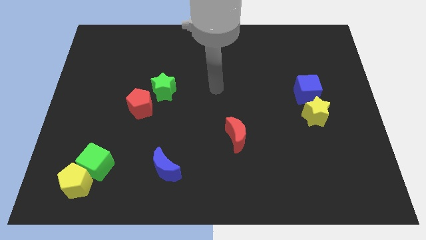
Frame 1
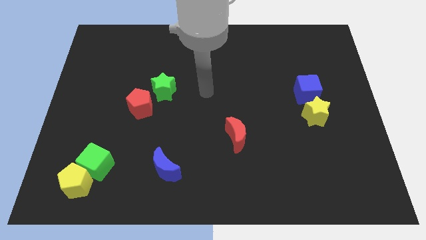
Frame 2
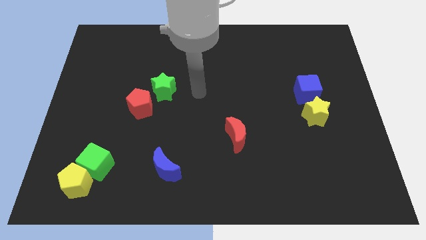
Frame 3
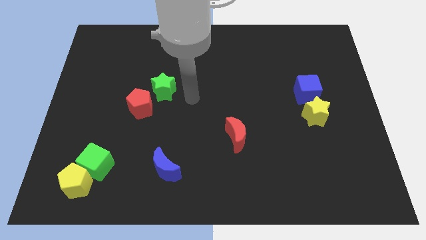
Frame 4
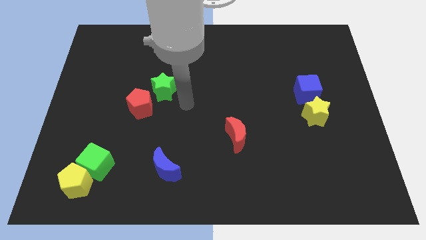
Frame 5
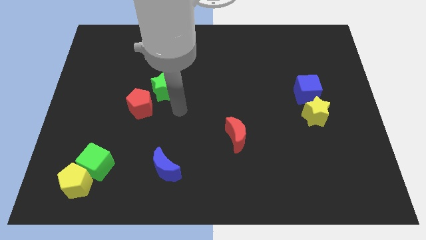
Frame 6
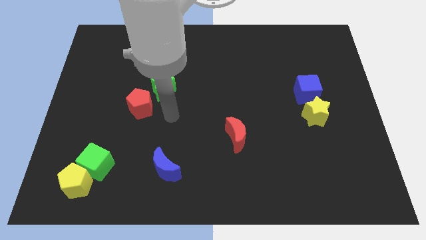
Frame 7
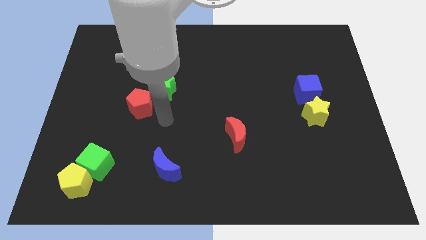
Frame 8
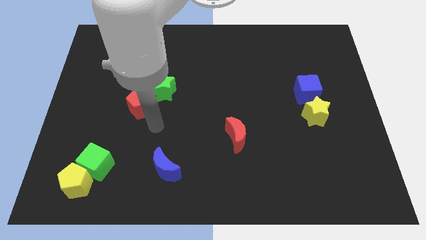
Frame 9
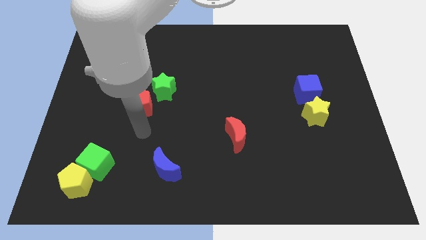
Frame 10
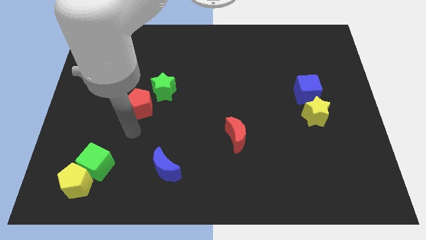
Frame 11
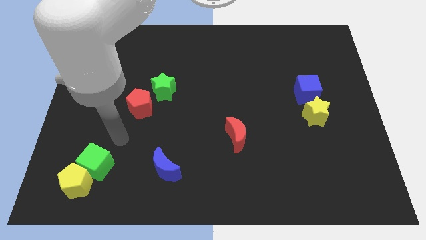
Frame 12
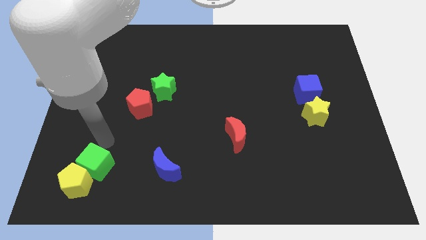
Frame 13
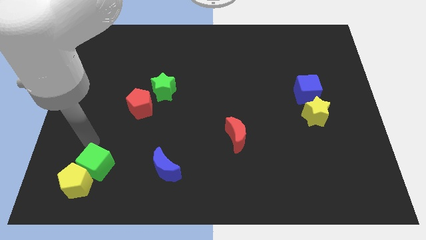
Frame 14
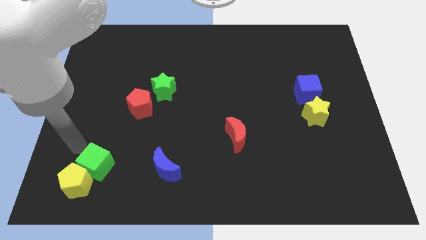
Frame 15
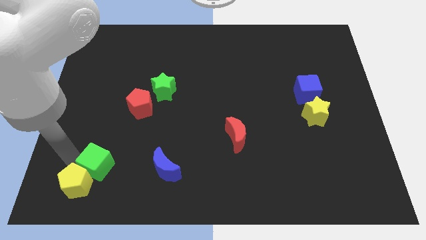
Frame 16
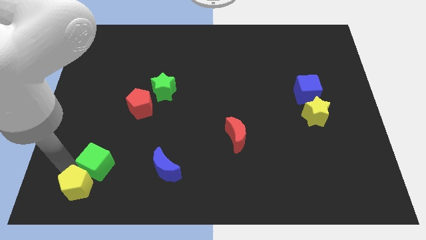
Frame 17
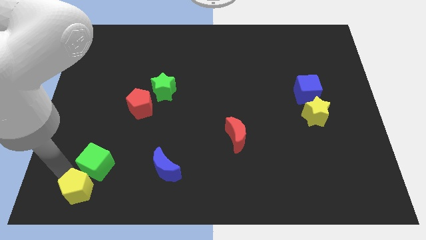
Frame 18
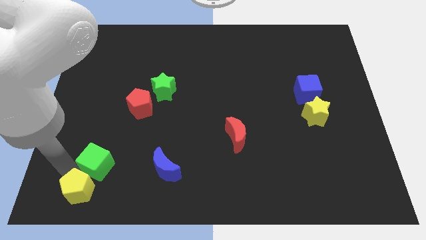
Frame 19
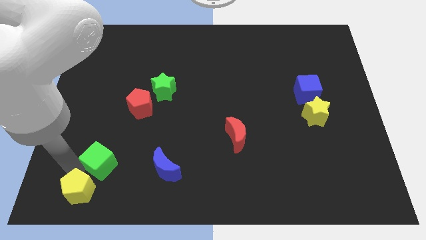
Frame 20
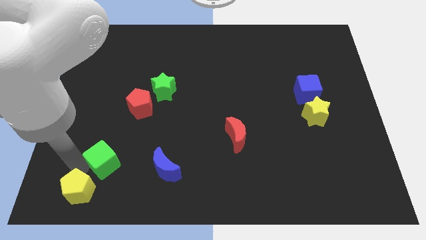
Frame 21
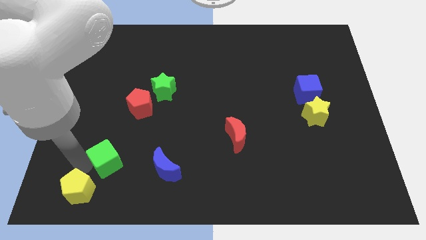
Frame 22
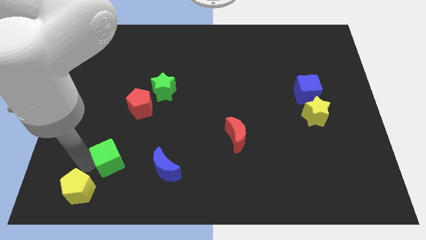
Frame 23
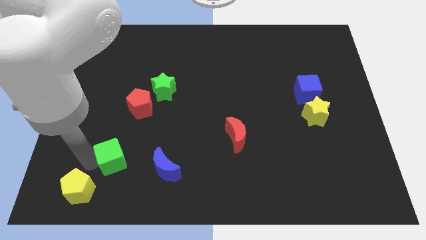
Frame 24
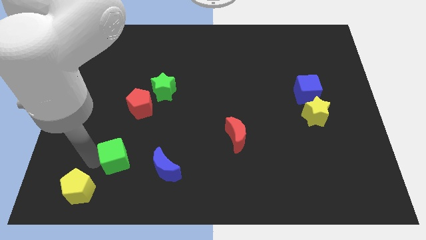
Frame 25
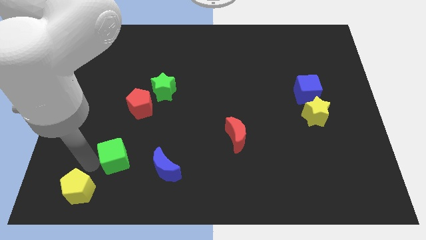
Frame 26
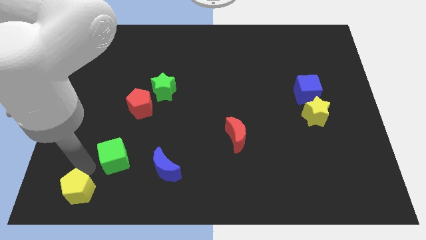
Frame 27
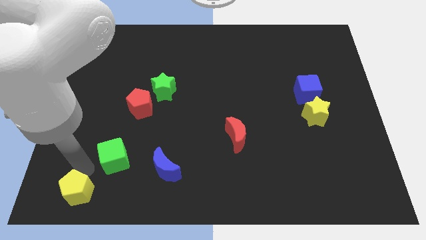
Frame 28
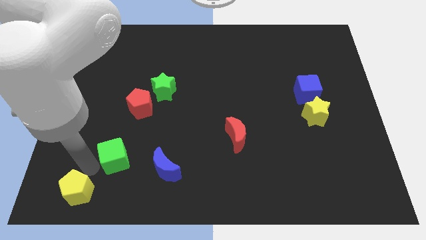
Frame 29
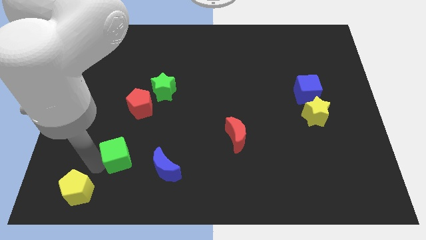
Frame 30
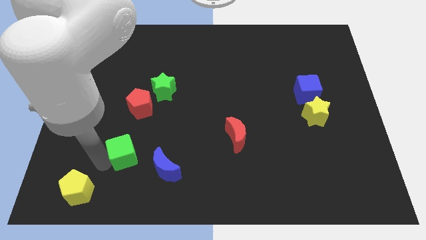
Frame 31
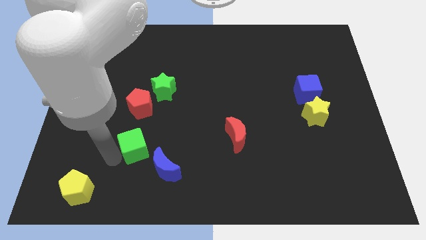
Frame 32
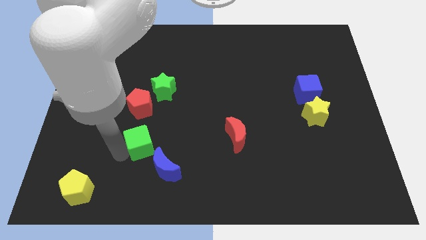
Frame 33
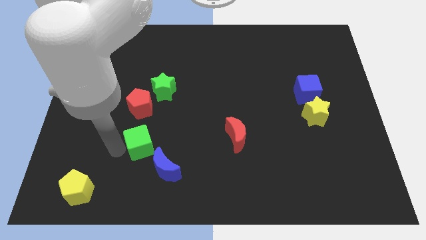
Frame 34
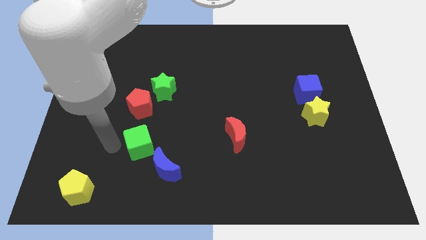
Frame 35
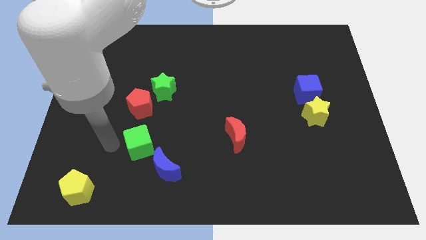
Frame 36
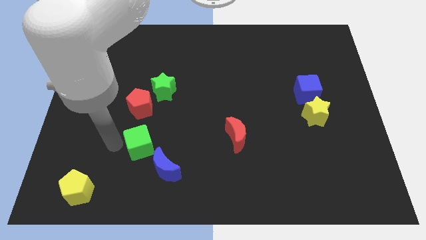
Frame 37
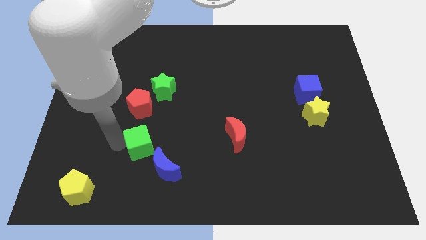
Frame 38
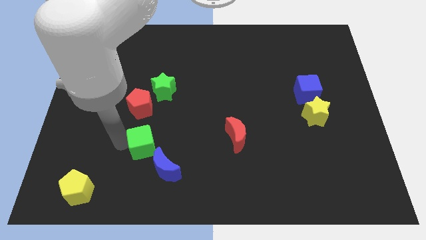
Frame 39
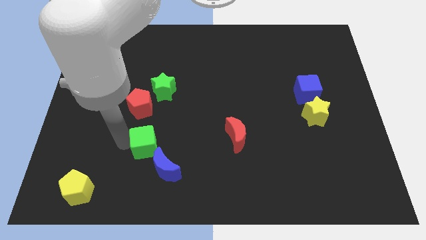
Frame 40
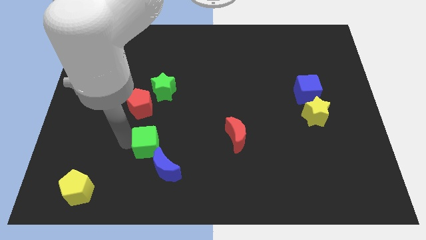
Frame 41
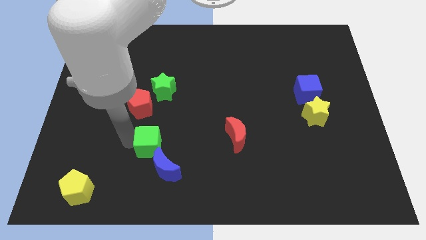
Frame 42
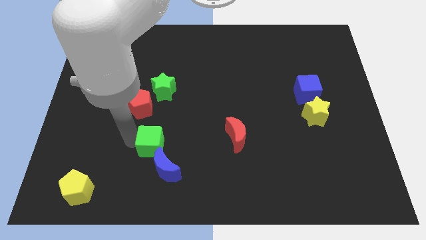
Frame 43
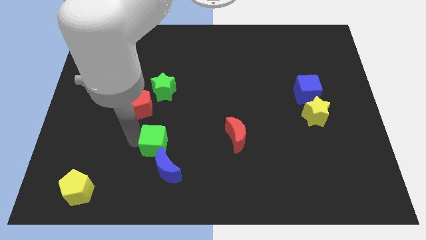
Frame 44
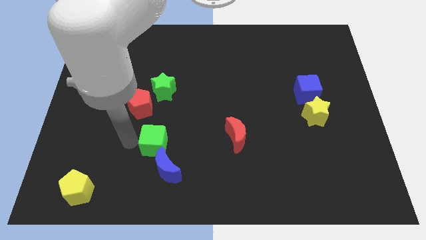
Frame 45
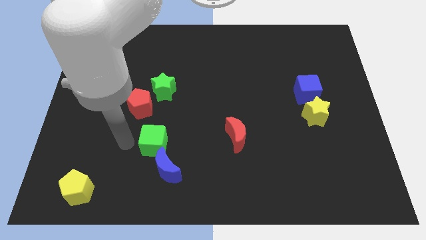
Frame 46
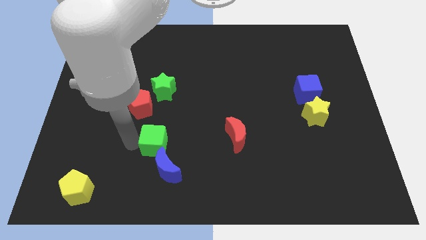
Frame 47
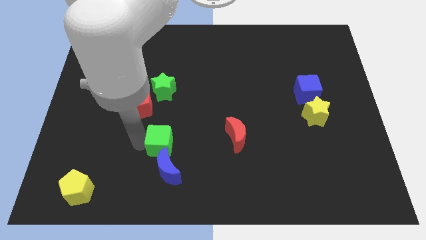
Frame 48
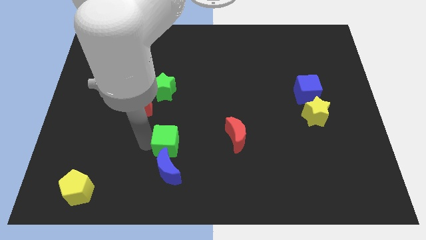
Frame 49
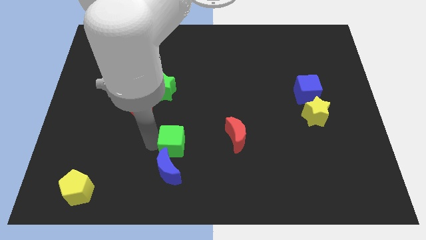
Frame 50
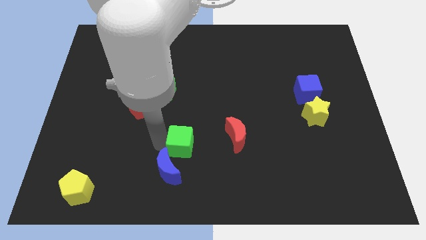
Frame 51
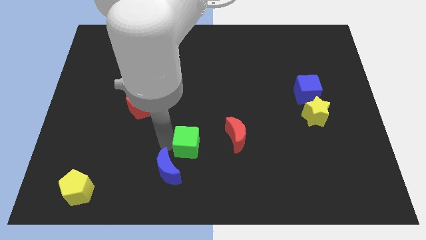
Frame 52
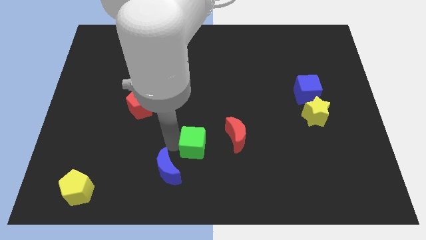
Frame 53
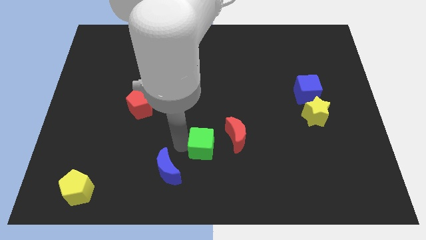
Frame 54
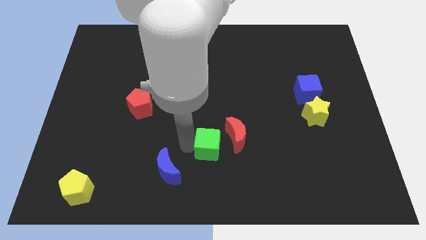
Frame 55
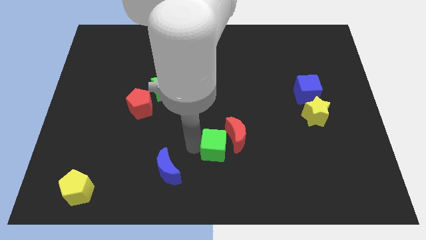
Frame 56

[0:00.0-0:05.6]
move the green cube to the red moon

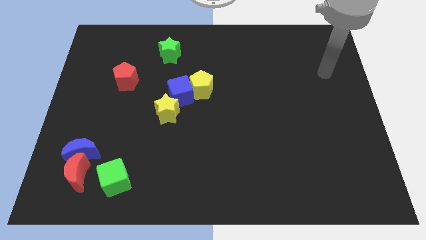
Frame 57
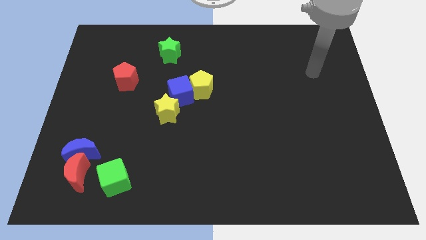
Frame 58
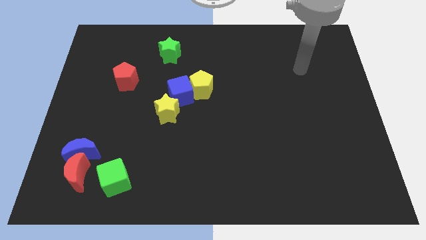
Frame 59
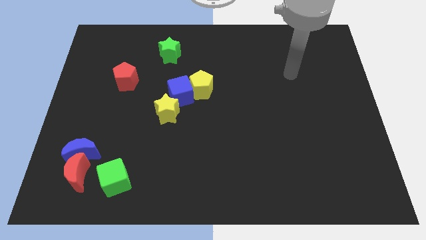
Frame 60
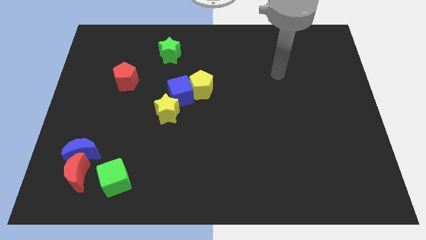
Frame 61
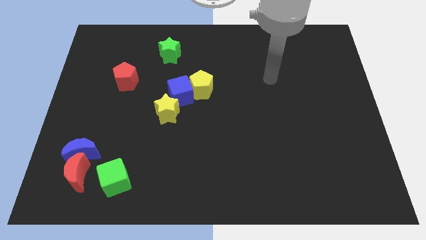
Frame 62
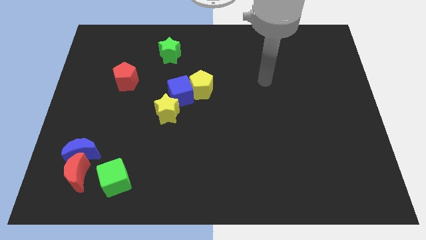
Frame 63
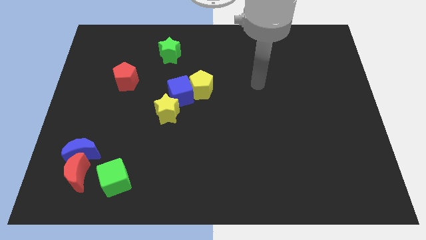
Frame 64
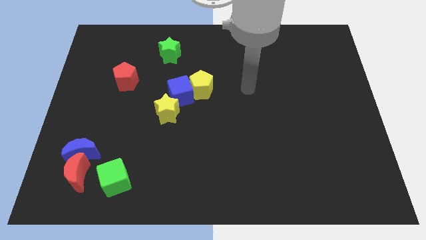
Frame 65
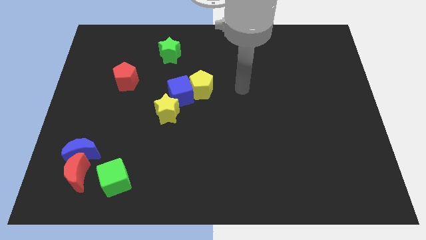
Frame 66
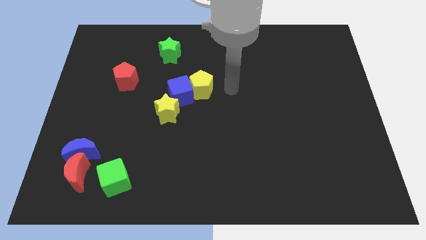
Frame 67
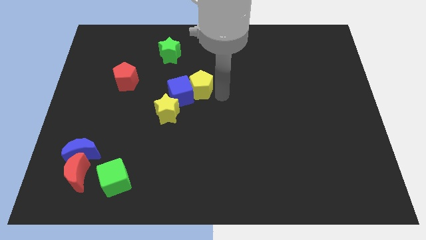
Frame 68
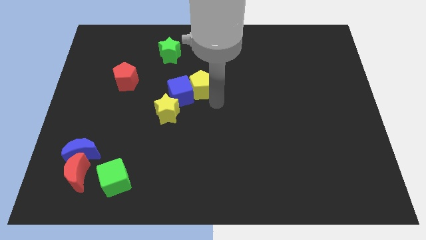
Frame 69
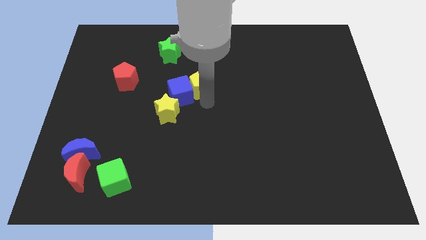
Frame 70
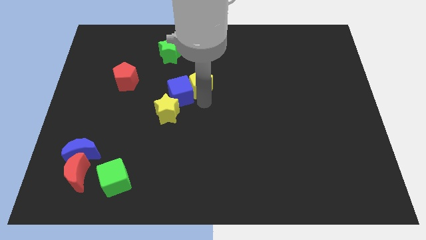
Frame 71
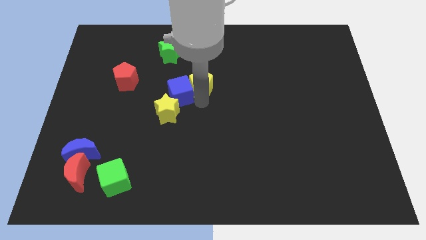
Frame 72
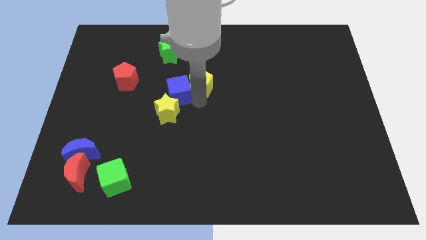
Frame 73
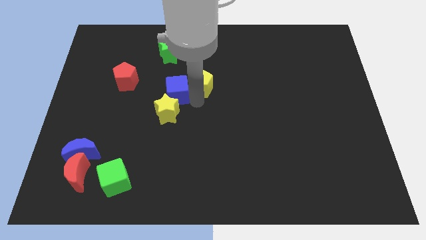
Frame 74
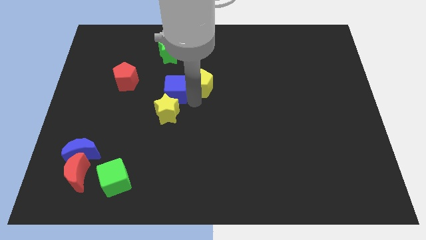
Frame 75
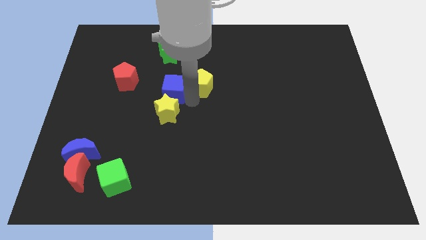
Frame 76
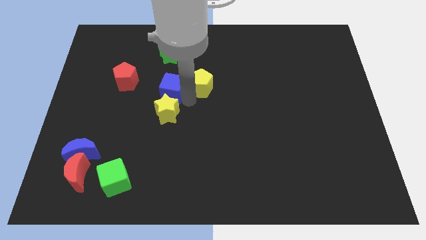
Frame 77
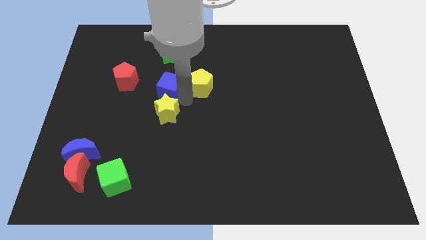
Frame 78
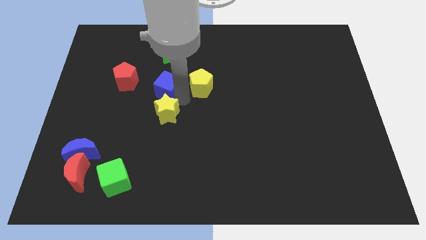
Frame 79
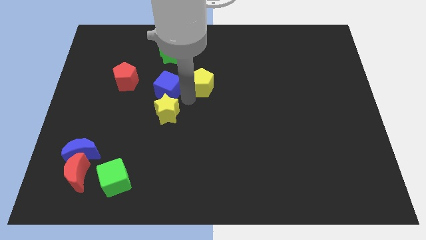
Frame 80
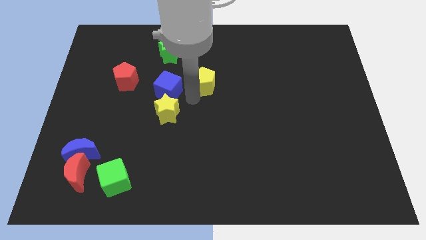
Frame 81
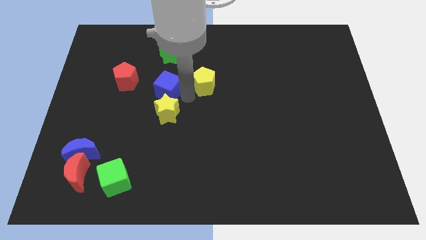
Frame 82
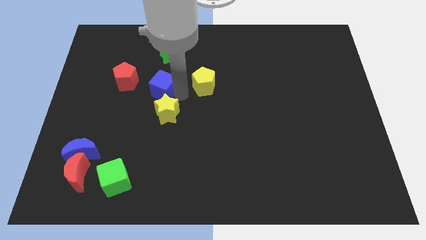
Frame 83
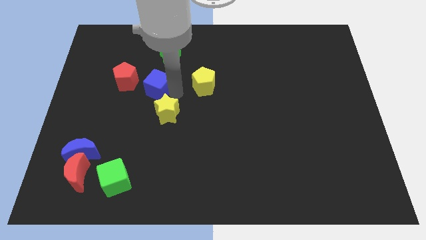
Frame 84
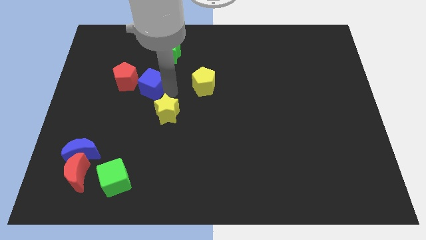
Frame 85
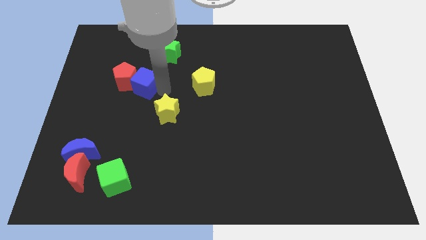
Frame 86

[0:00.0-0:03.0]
slide the blue cube close to the red pentagon
